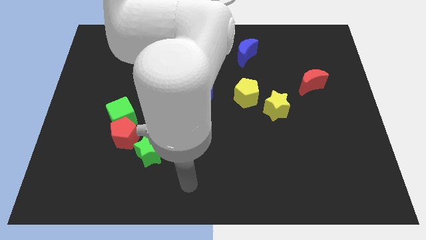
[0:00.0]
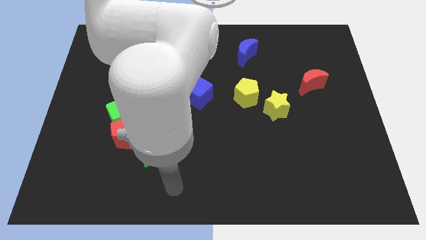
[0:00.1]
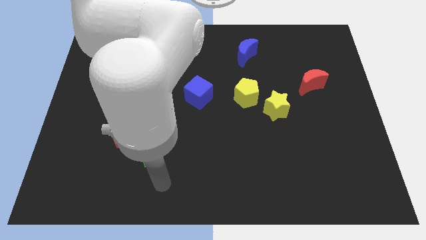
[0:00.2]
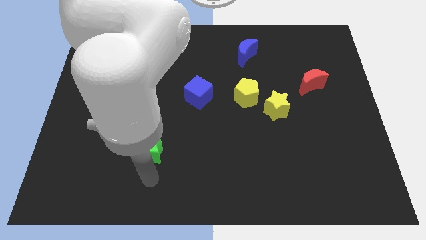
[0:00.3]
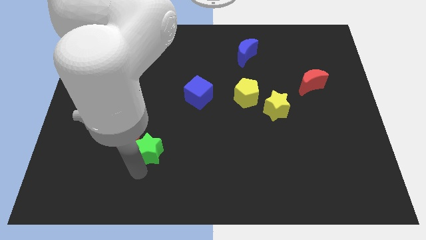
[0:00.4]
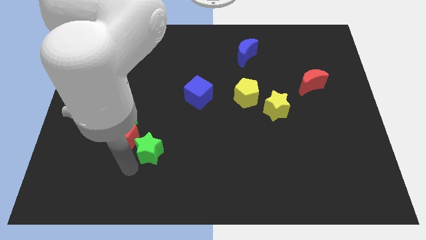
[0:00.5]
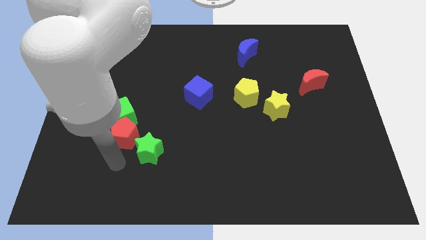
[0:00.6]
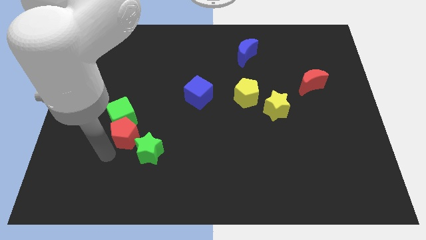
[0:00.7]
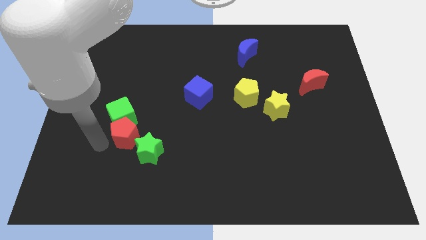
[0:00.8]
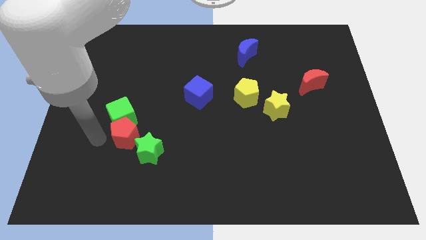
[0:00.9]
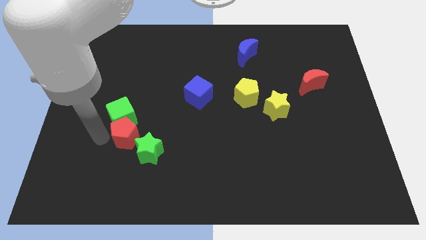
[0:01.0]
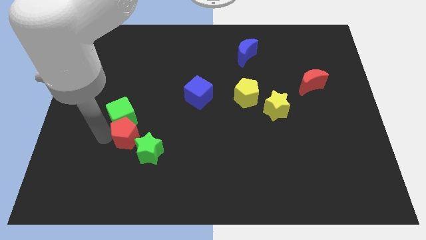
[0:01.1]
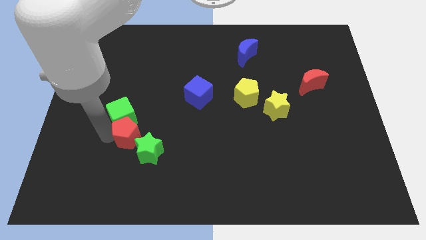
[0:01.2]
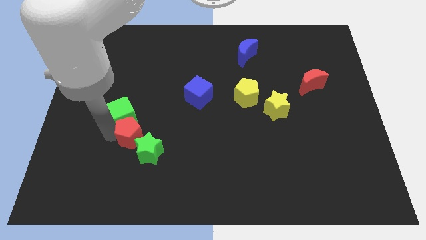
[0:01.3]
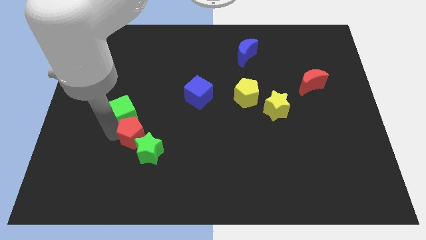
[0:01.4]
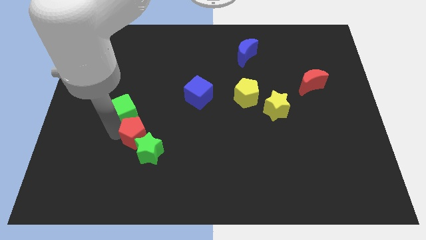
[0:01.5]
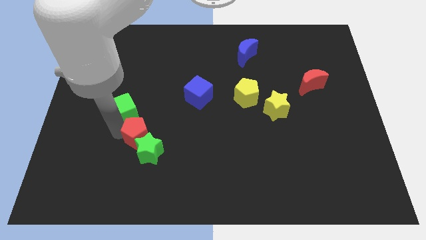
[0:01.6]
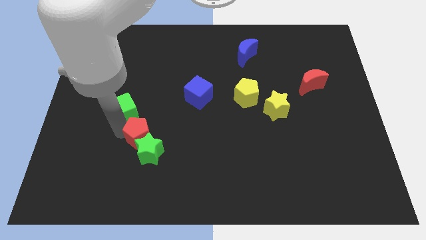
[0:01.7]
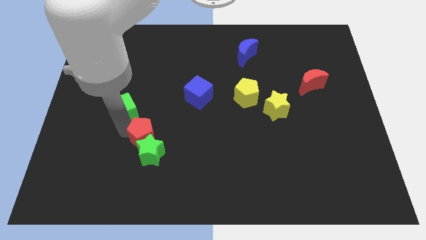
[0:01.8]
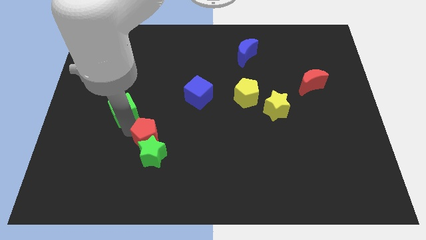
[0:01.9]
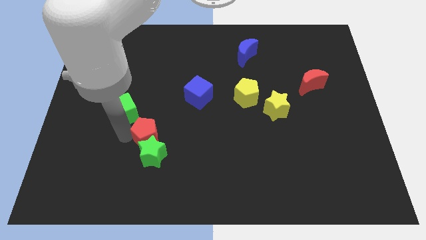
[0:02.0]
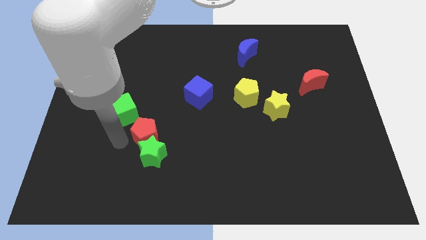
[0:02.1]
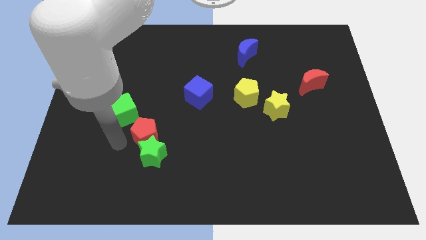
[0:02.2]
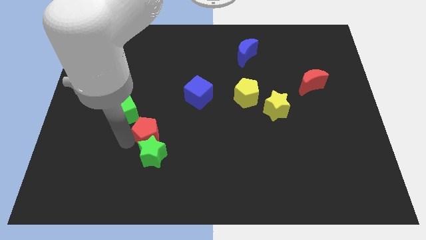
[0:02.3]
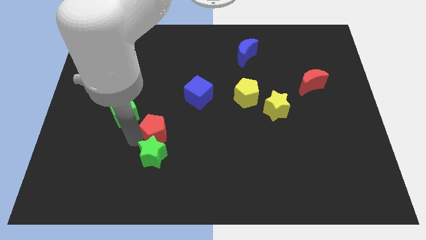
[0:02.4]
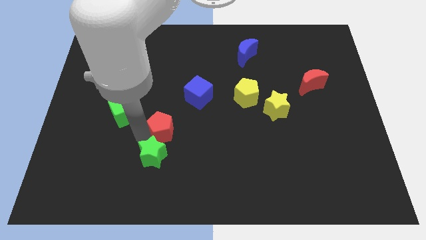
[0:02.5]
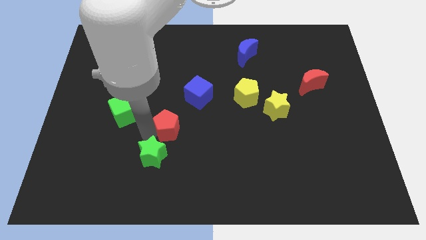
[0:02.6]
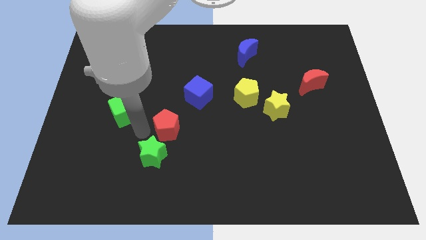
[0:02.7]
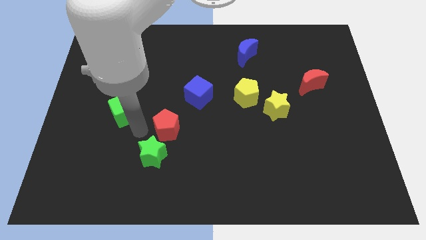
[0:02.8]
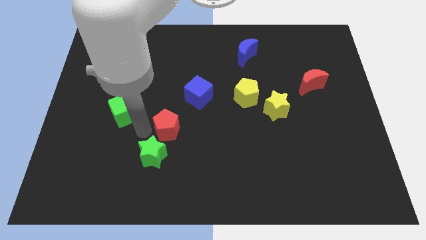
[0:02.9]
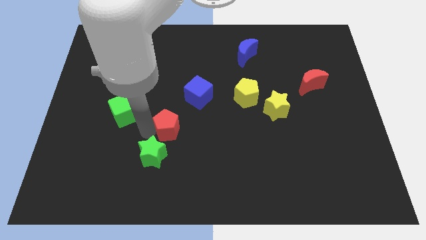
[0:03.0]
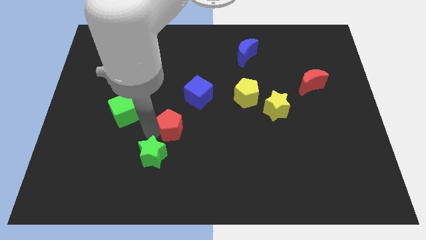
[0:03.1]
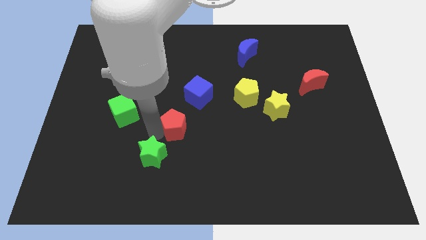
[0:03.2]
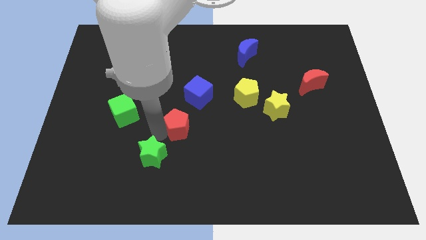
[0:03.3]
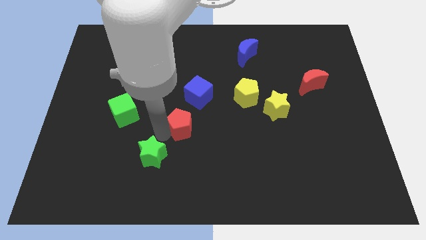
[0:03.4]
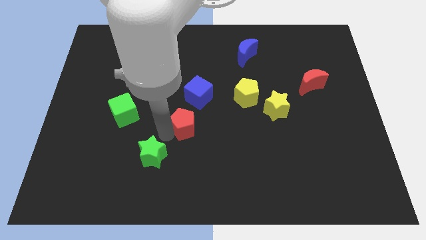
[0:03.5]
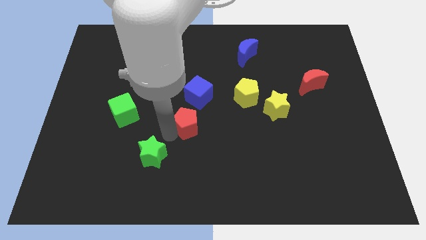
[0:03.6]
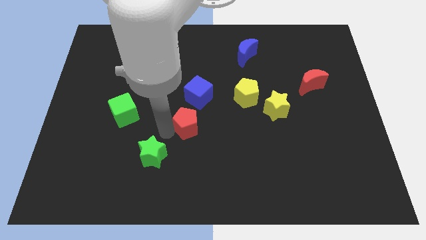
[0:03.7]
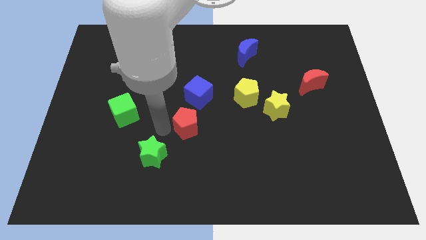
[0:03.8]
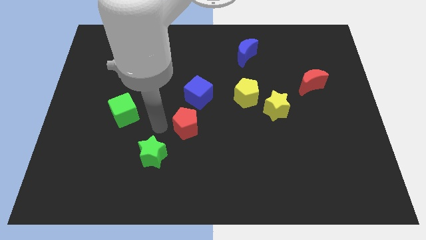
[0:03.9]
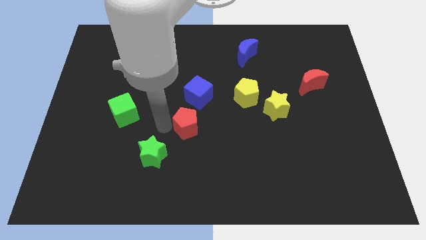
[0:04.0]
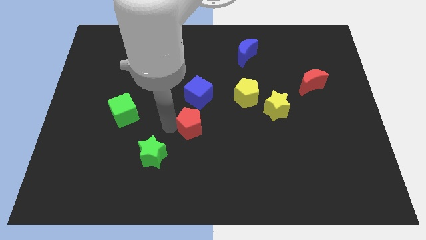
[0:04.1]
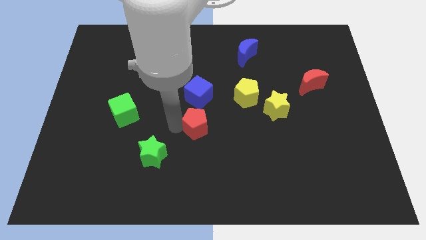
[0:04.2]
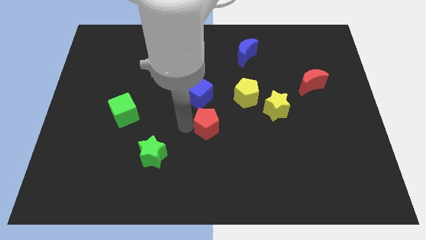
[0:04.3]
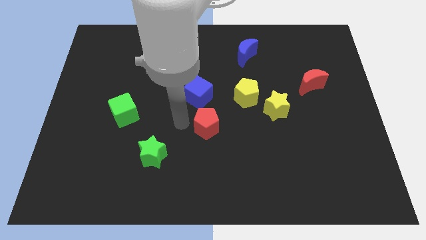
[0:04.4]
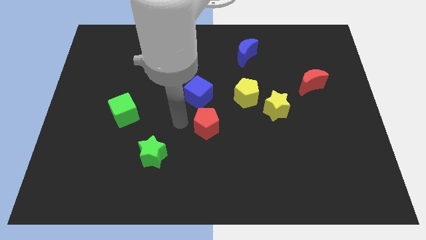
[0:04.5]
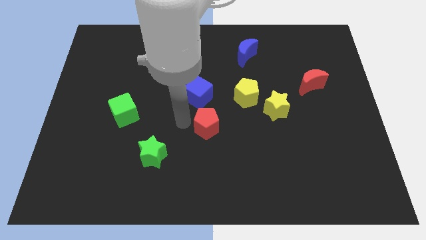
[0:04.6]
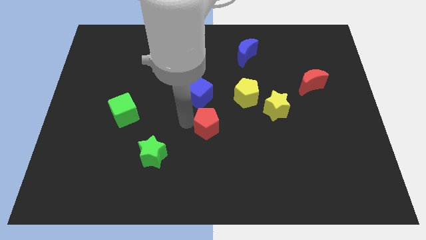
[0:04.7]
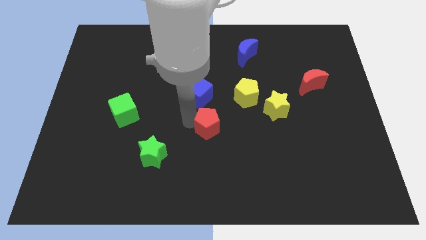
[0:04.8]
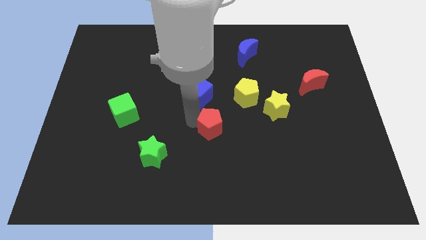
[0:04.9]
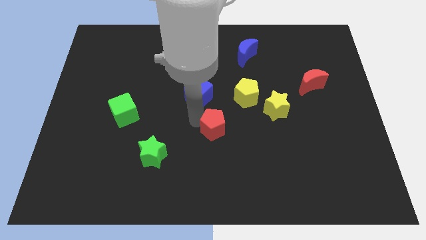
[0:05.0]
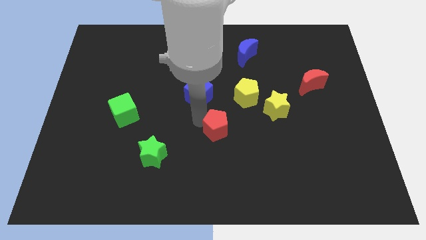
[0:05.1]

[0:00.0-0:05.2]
push the red pentagon to the right

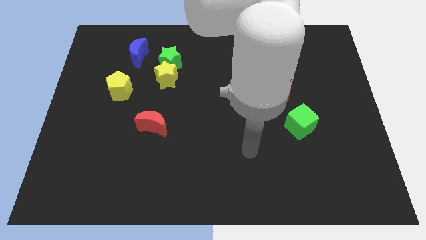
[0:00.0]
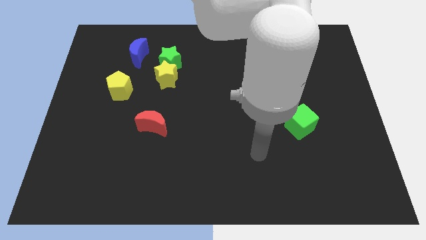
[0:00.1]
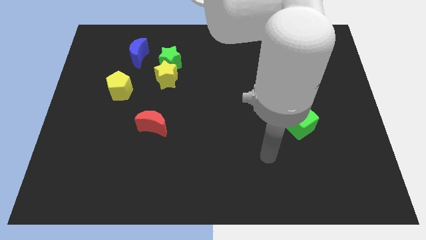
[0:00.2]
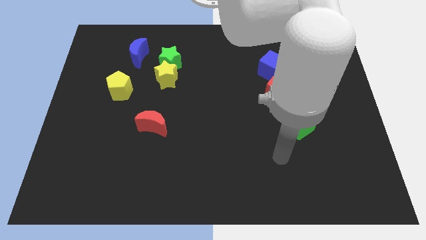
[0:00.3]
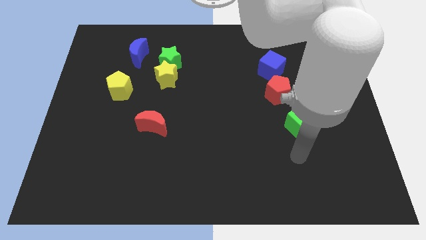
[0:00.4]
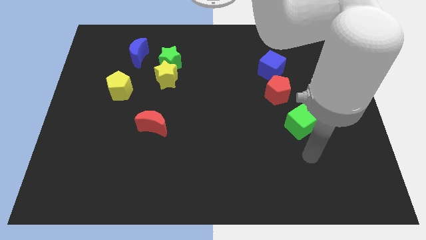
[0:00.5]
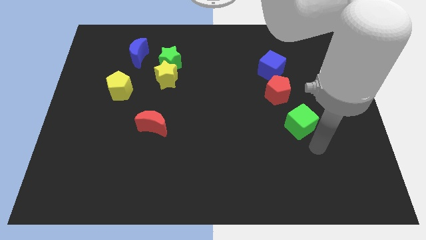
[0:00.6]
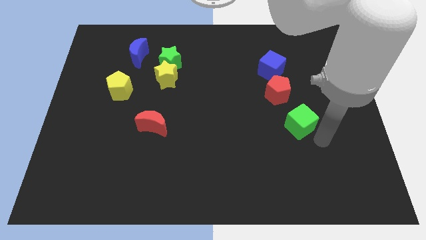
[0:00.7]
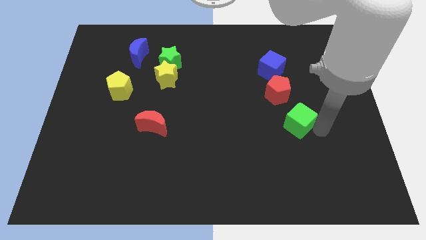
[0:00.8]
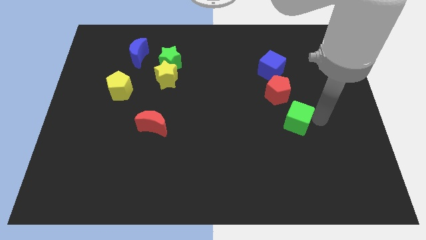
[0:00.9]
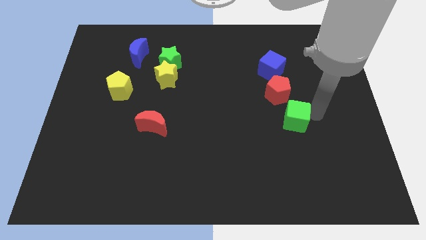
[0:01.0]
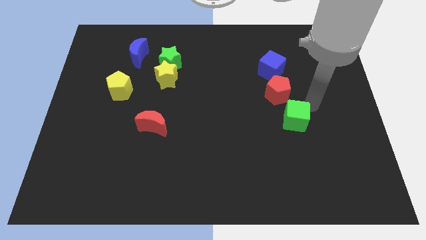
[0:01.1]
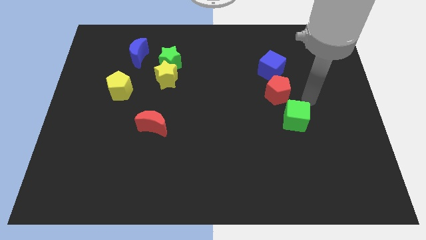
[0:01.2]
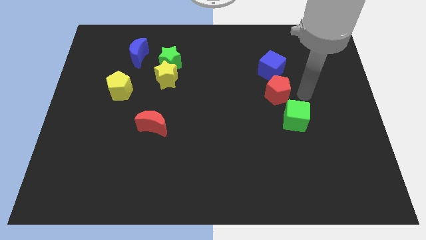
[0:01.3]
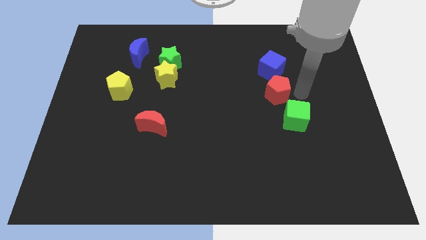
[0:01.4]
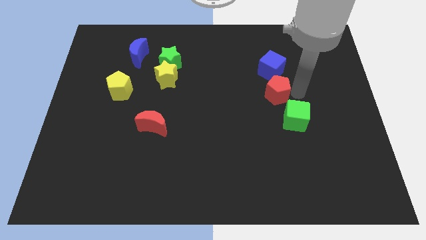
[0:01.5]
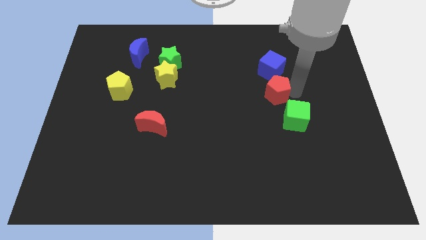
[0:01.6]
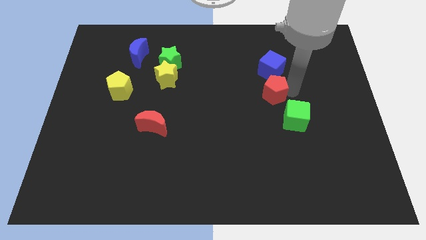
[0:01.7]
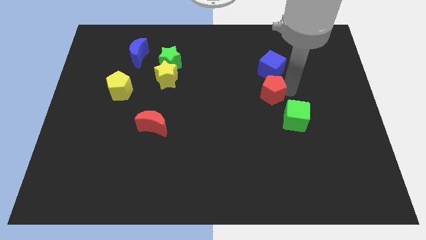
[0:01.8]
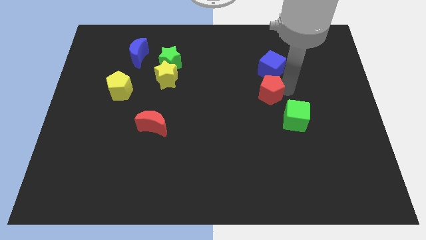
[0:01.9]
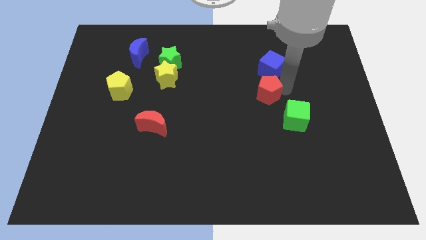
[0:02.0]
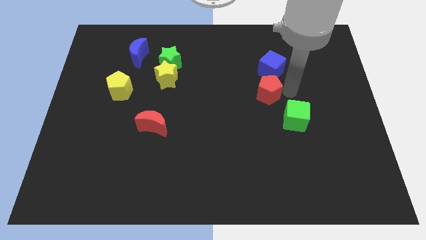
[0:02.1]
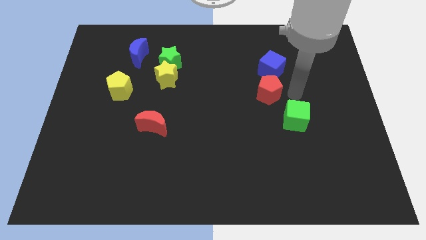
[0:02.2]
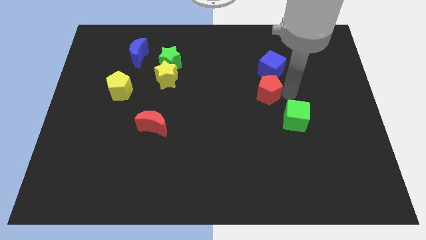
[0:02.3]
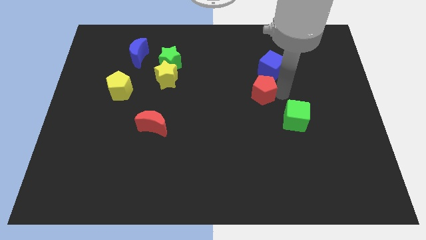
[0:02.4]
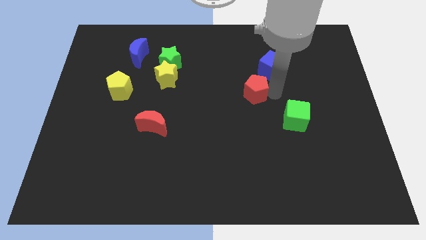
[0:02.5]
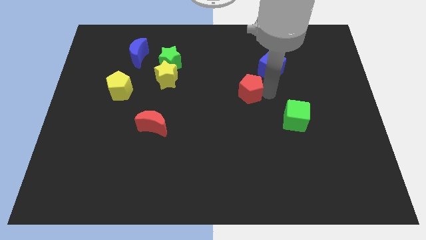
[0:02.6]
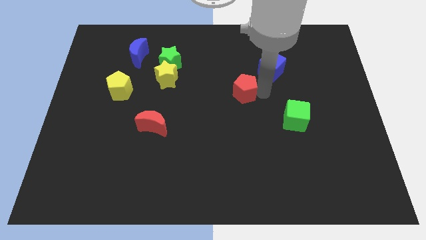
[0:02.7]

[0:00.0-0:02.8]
move the red pentagon left a little

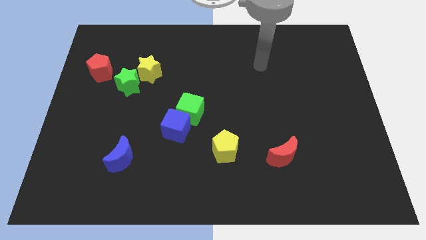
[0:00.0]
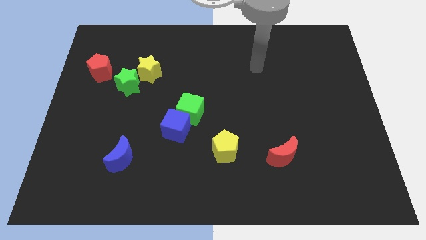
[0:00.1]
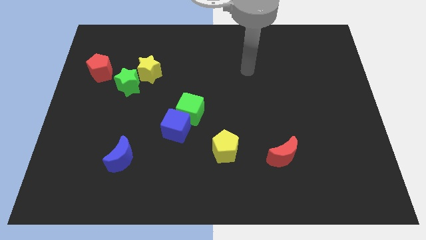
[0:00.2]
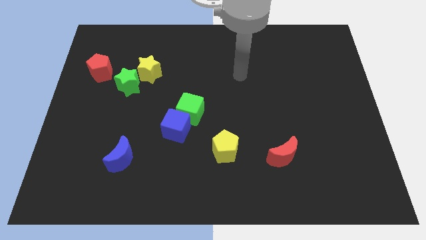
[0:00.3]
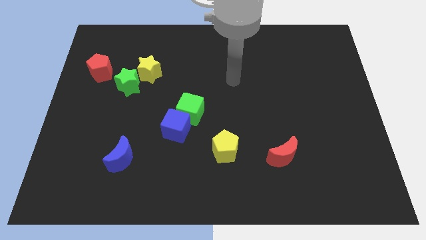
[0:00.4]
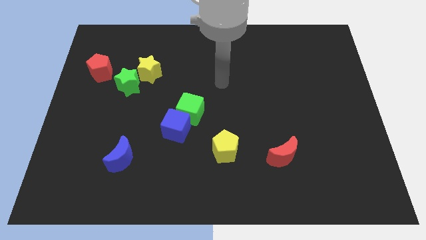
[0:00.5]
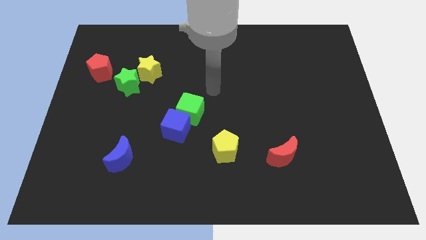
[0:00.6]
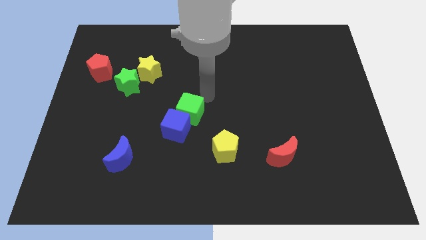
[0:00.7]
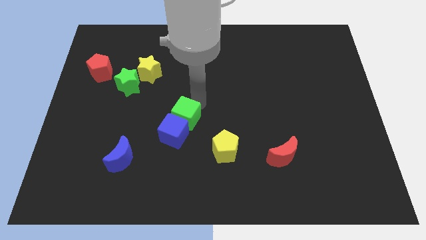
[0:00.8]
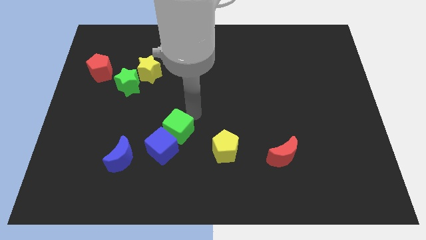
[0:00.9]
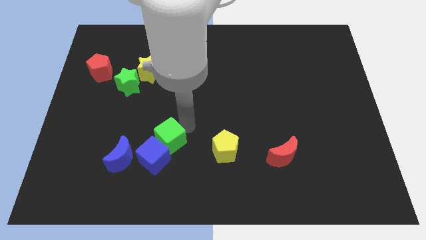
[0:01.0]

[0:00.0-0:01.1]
move the blue cube slightly downwards and left
